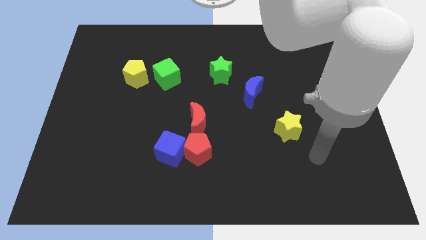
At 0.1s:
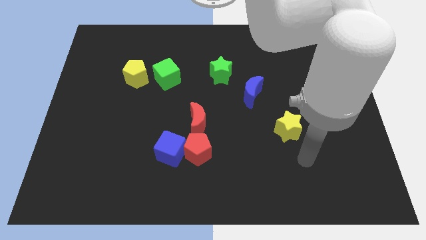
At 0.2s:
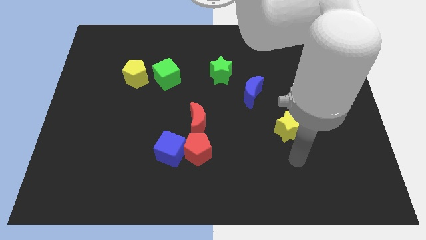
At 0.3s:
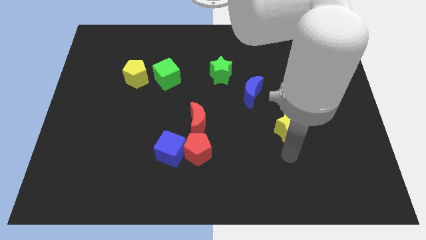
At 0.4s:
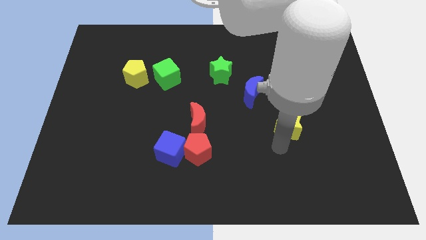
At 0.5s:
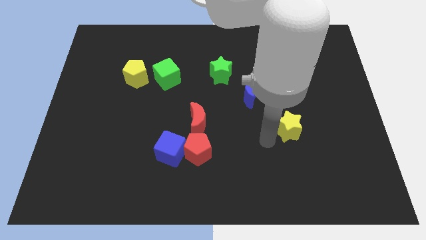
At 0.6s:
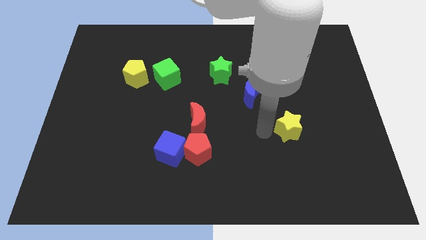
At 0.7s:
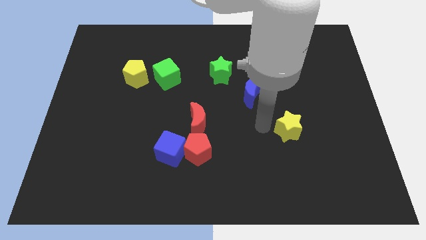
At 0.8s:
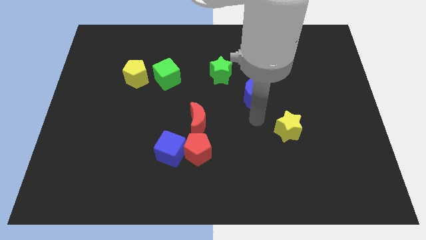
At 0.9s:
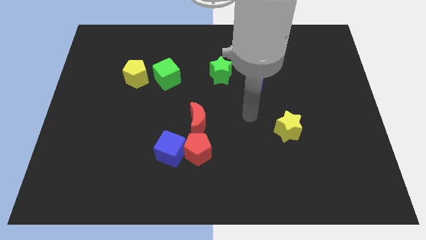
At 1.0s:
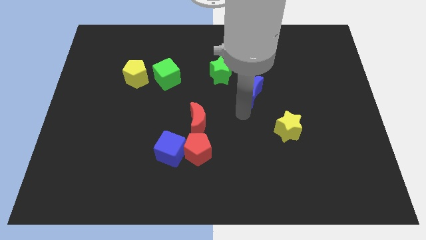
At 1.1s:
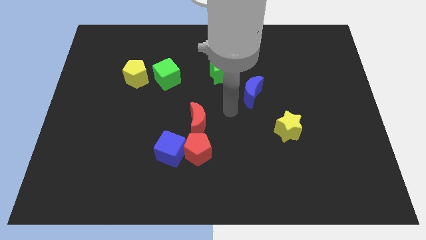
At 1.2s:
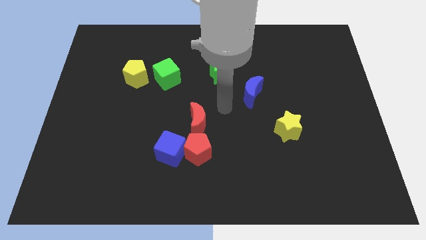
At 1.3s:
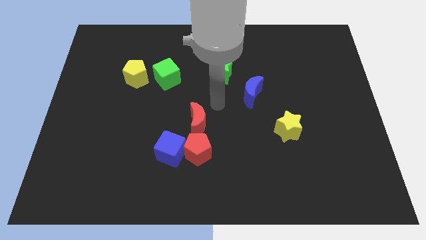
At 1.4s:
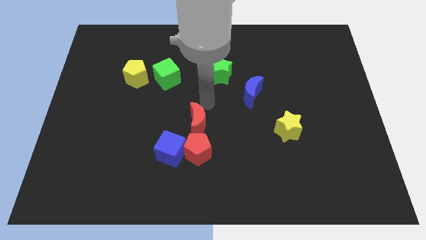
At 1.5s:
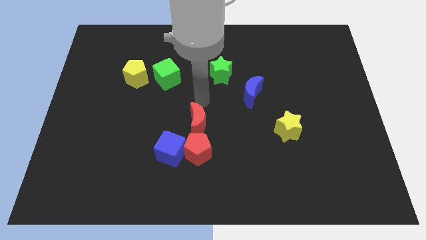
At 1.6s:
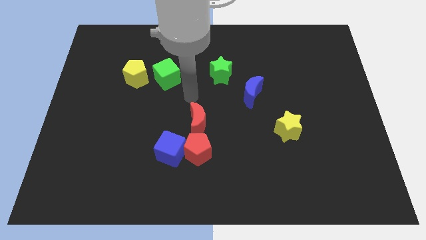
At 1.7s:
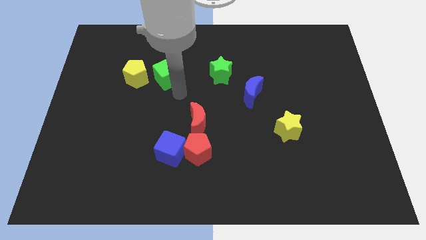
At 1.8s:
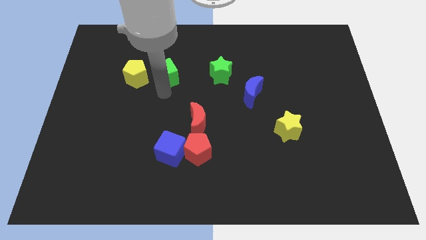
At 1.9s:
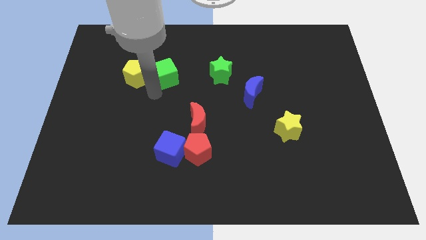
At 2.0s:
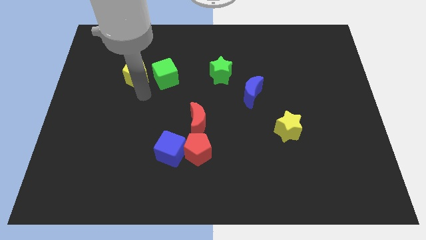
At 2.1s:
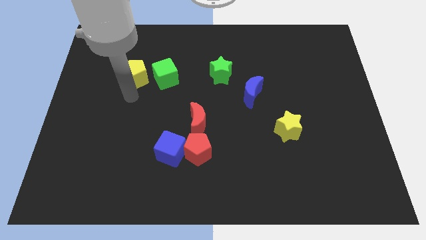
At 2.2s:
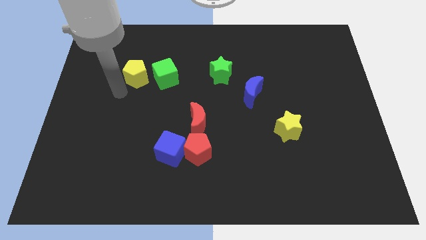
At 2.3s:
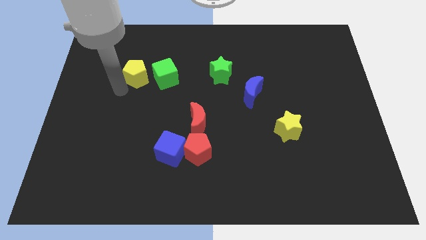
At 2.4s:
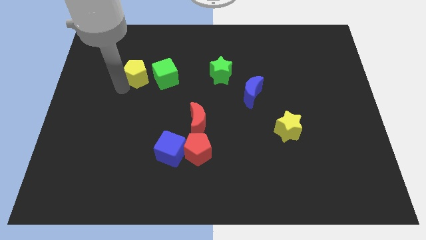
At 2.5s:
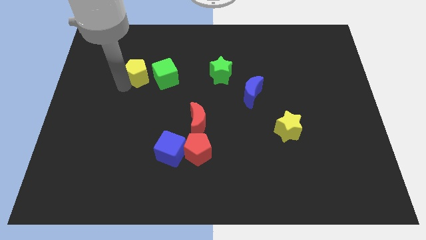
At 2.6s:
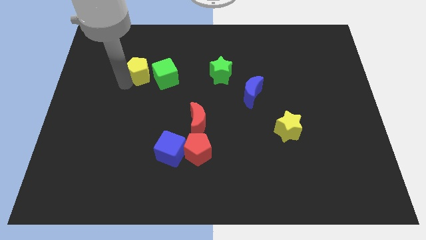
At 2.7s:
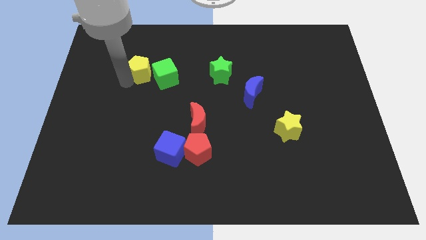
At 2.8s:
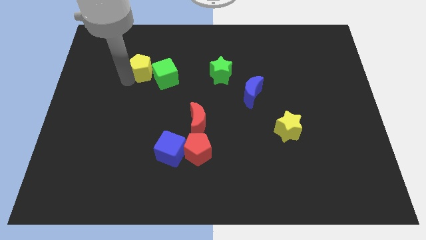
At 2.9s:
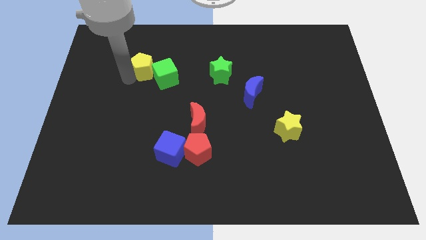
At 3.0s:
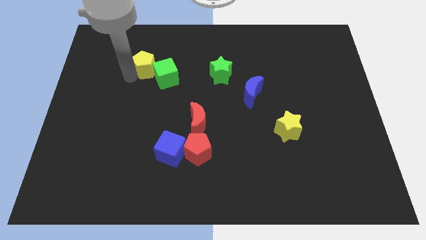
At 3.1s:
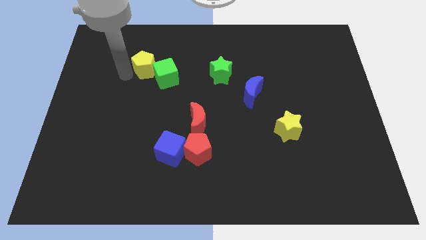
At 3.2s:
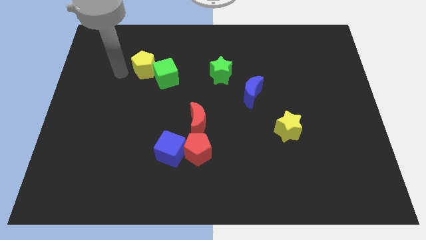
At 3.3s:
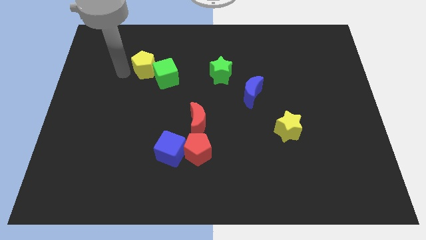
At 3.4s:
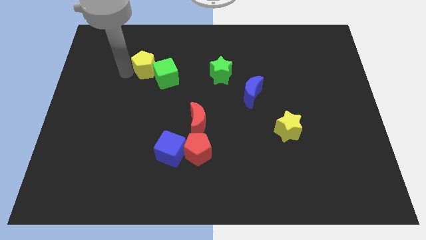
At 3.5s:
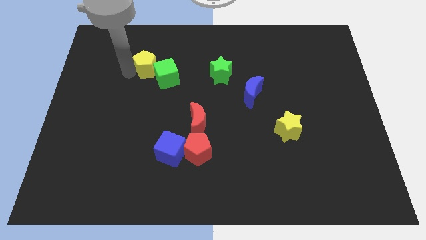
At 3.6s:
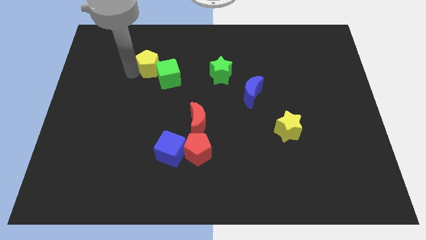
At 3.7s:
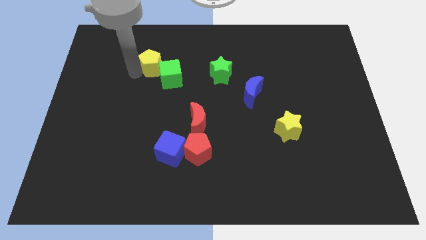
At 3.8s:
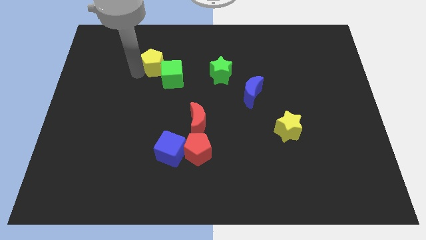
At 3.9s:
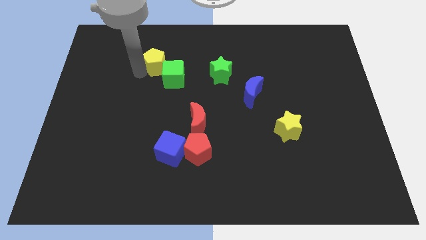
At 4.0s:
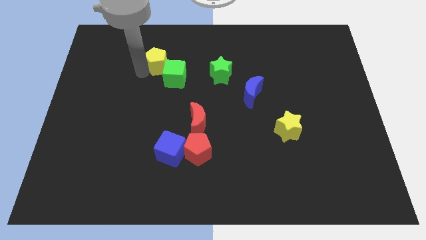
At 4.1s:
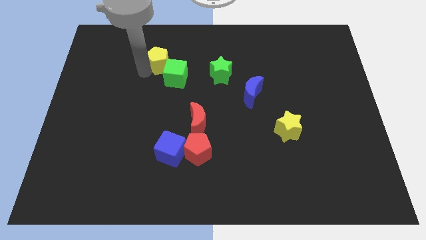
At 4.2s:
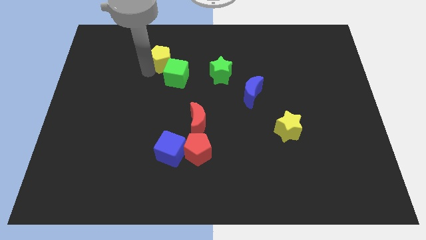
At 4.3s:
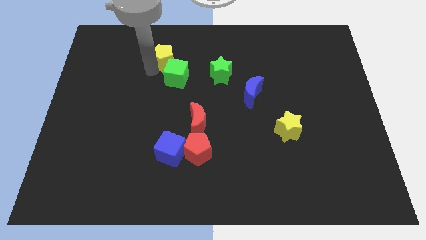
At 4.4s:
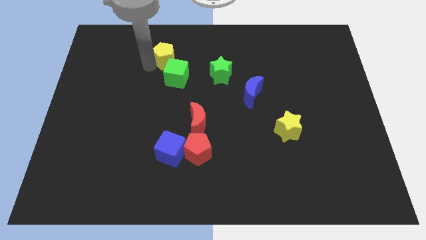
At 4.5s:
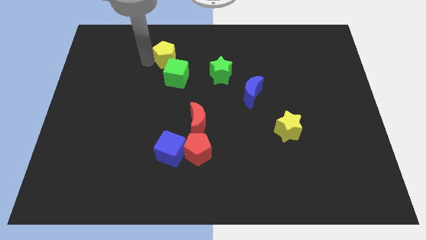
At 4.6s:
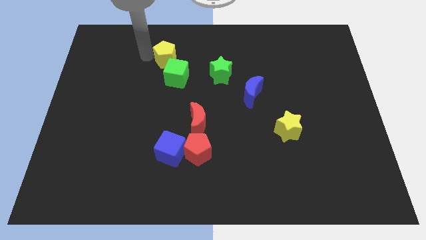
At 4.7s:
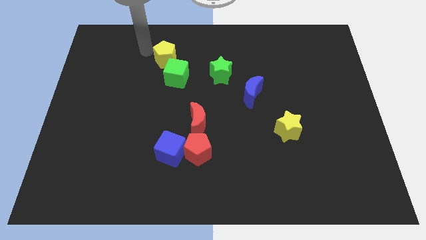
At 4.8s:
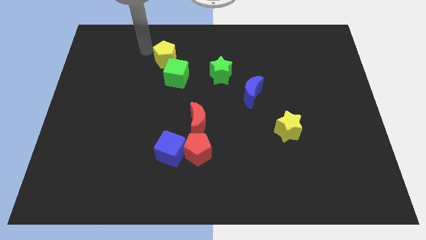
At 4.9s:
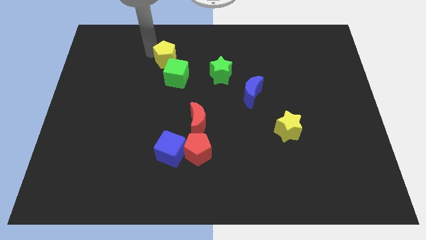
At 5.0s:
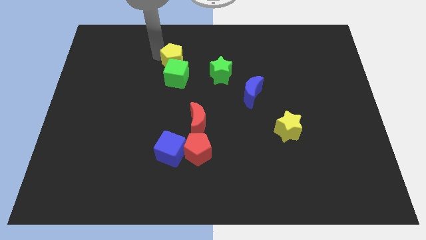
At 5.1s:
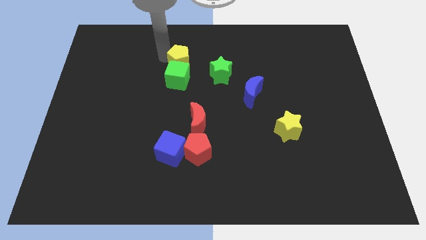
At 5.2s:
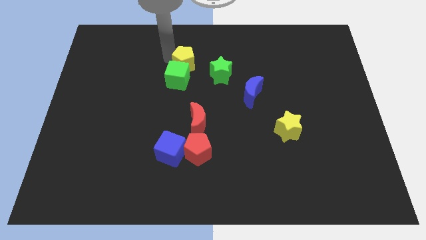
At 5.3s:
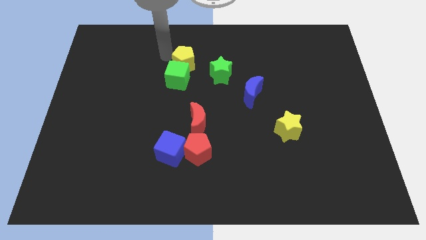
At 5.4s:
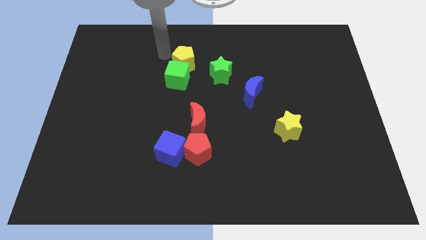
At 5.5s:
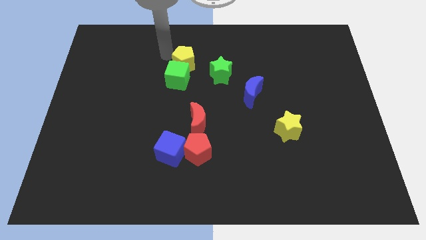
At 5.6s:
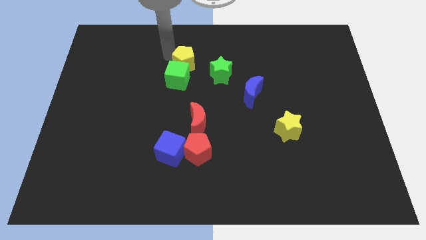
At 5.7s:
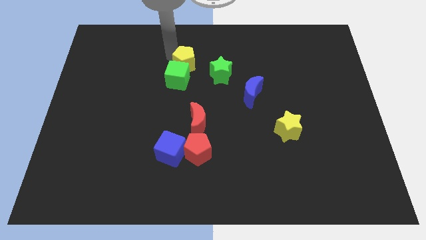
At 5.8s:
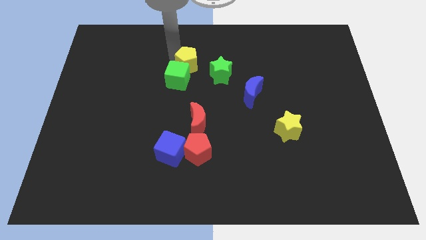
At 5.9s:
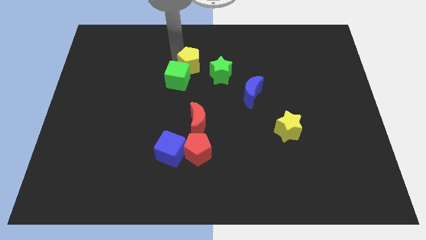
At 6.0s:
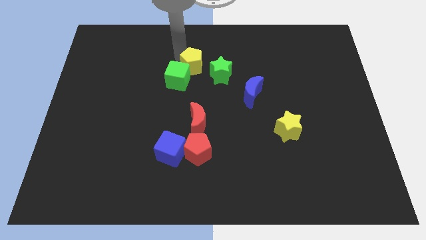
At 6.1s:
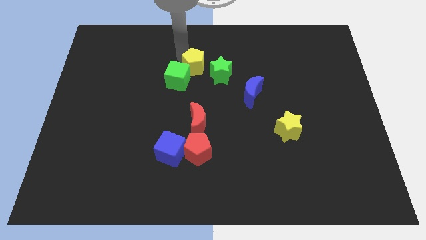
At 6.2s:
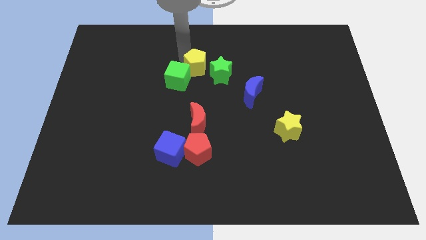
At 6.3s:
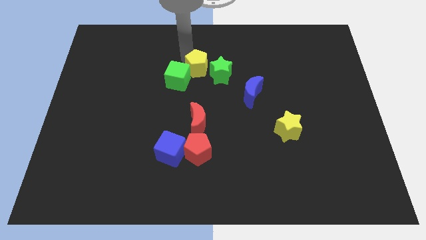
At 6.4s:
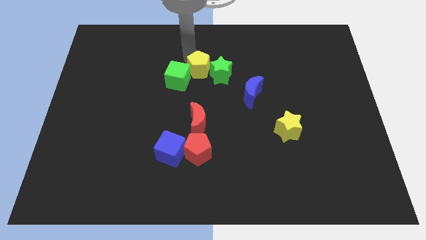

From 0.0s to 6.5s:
put the yellow pentagon towards the green star
